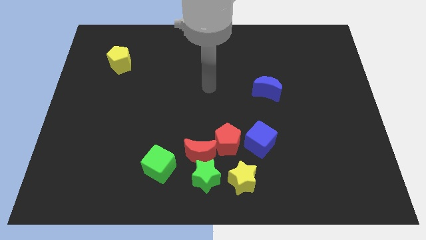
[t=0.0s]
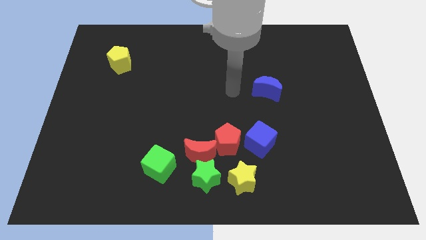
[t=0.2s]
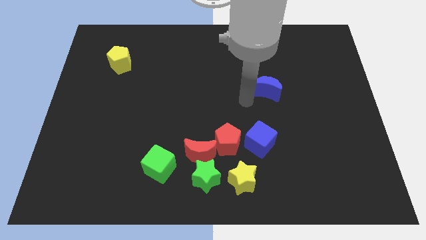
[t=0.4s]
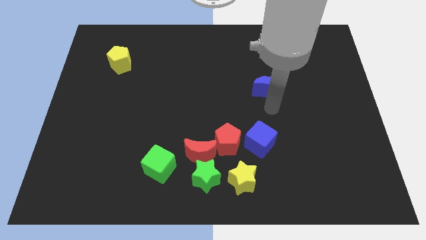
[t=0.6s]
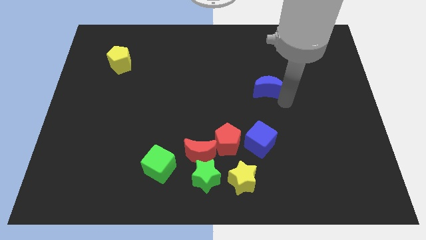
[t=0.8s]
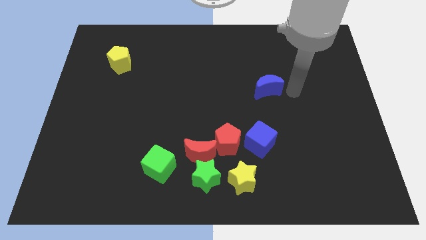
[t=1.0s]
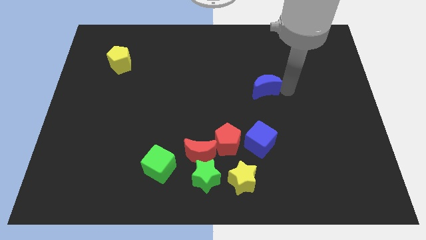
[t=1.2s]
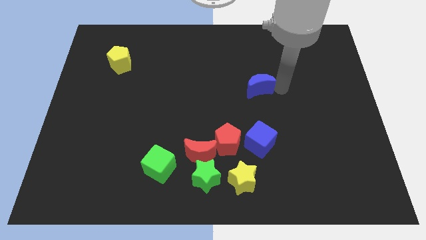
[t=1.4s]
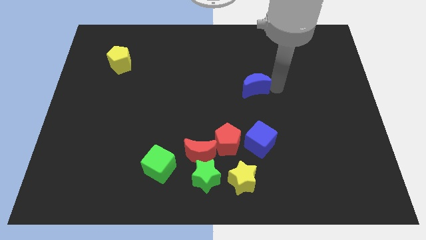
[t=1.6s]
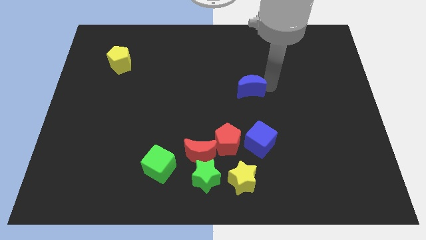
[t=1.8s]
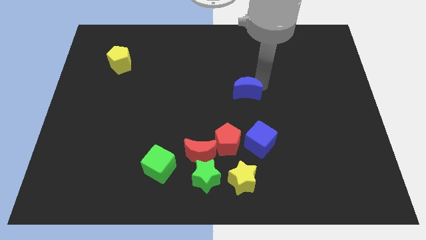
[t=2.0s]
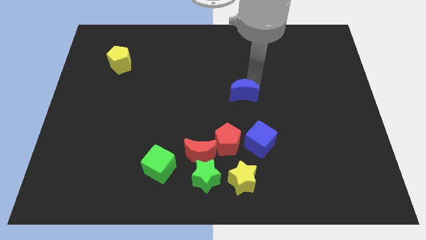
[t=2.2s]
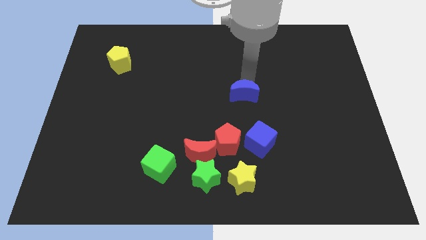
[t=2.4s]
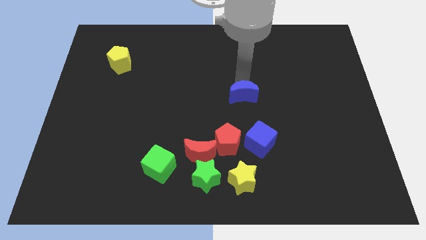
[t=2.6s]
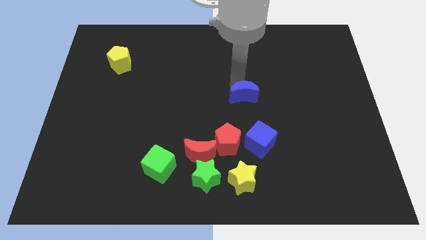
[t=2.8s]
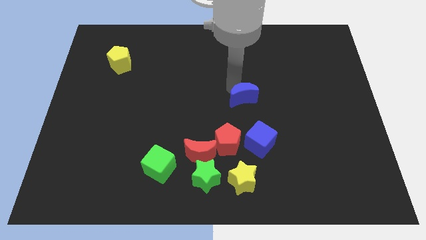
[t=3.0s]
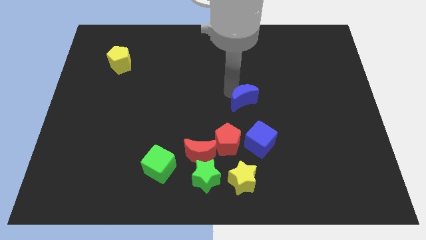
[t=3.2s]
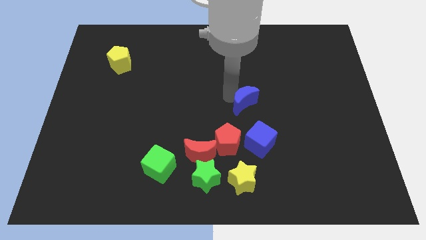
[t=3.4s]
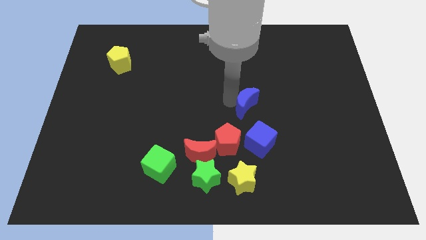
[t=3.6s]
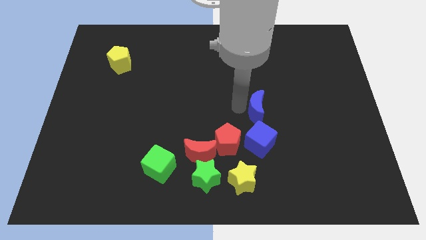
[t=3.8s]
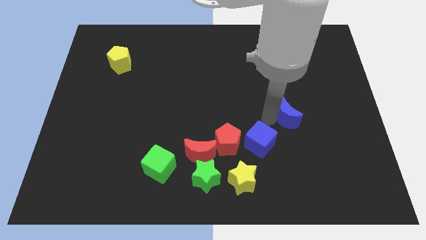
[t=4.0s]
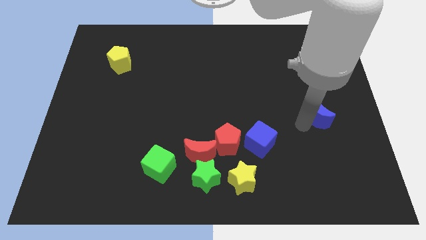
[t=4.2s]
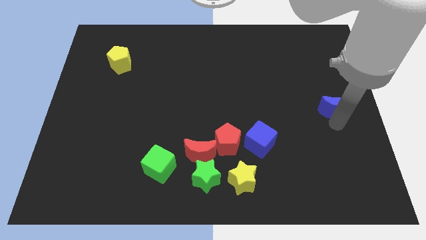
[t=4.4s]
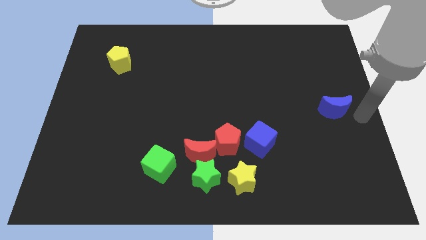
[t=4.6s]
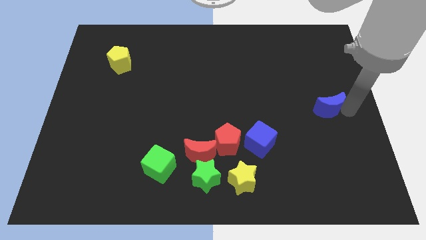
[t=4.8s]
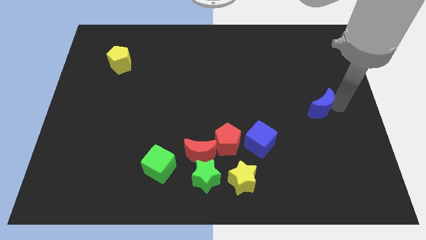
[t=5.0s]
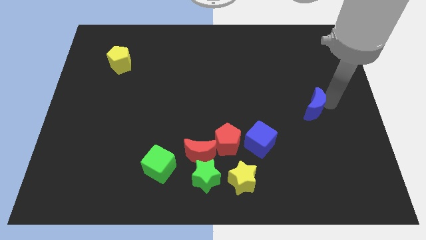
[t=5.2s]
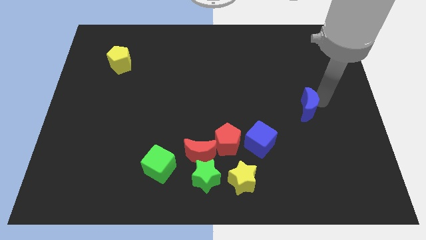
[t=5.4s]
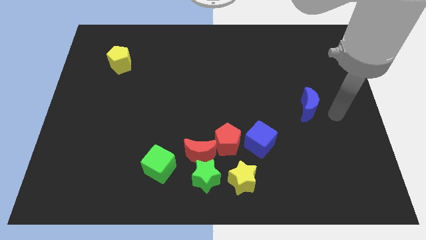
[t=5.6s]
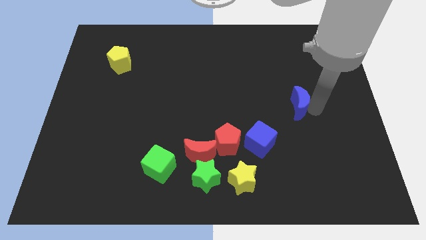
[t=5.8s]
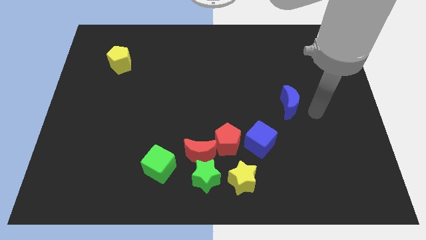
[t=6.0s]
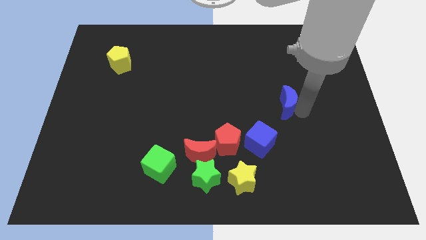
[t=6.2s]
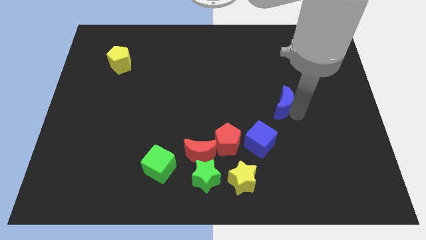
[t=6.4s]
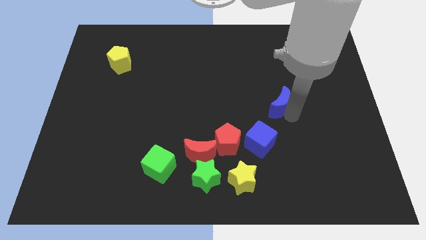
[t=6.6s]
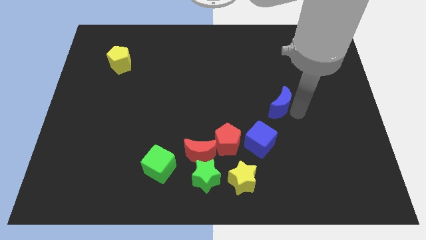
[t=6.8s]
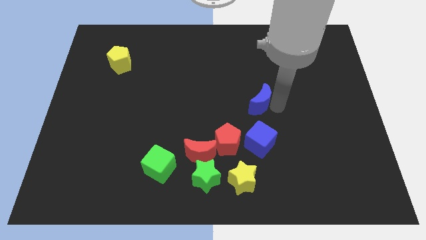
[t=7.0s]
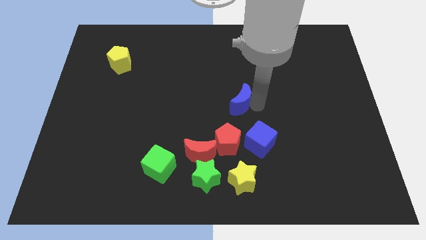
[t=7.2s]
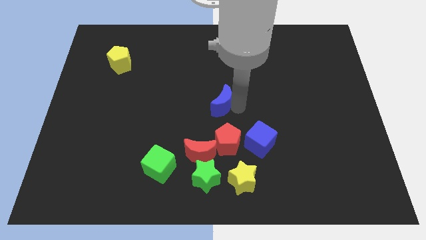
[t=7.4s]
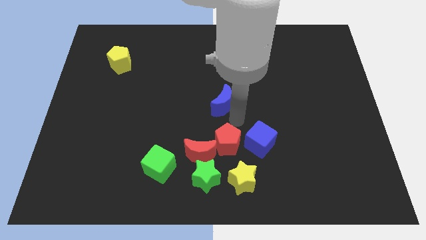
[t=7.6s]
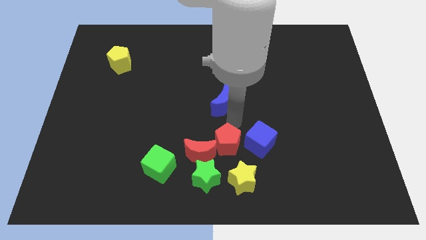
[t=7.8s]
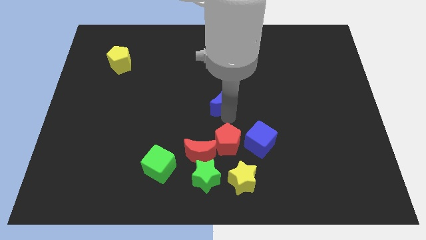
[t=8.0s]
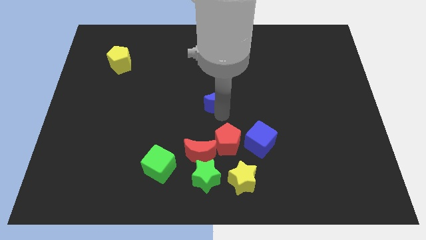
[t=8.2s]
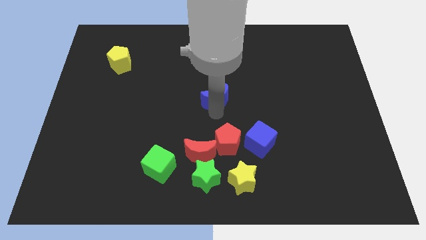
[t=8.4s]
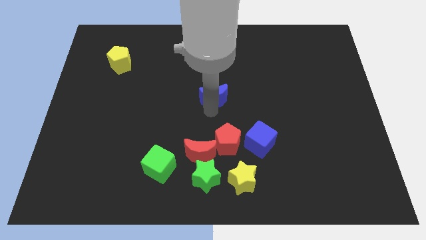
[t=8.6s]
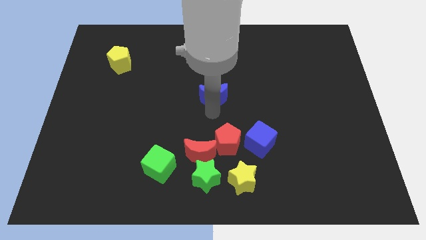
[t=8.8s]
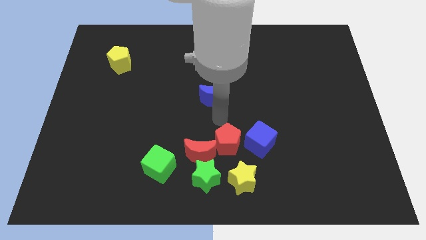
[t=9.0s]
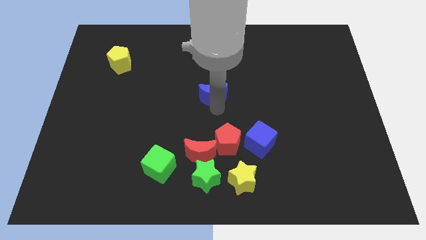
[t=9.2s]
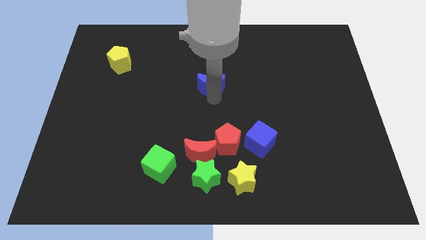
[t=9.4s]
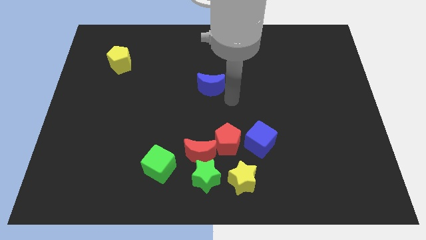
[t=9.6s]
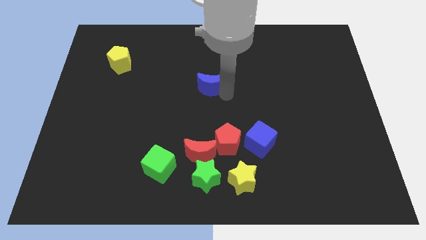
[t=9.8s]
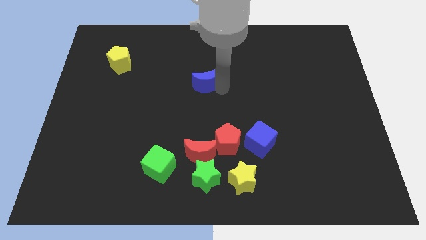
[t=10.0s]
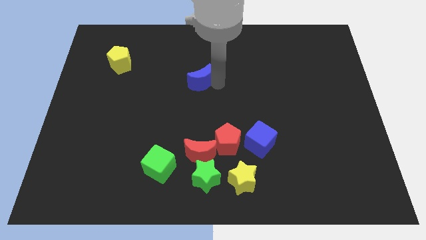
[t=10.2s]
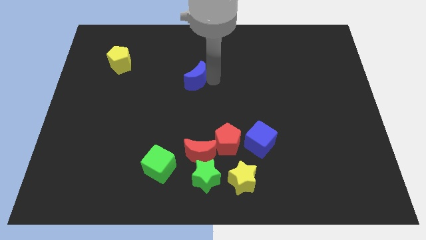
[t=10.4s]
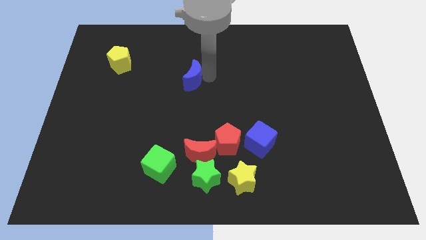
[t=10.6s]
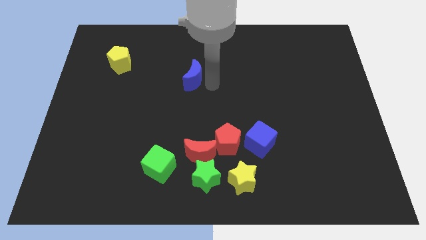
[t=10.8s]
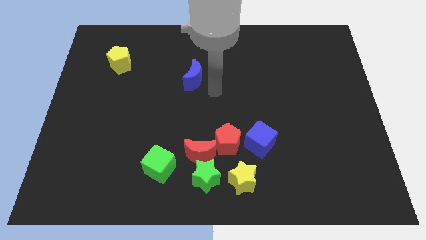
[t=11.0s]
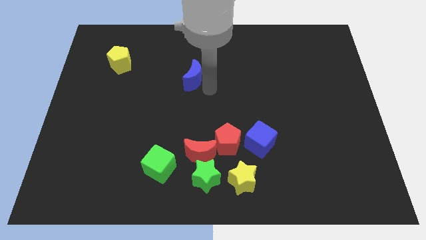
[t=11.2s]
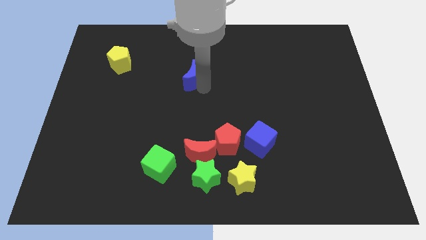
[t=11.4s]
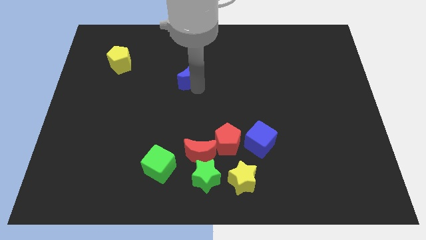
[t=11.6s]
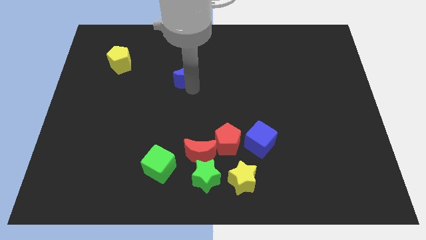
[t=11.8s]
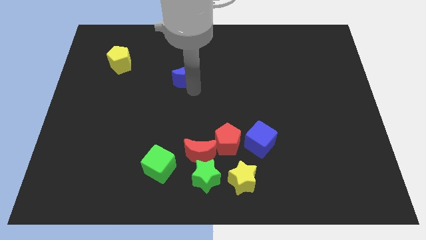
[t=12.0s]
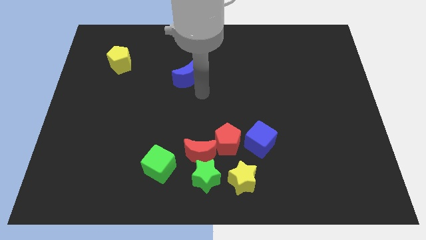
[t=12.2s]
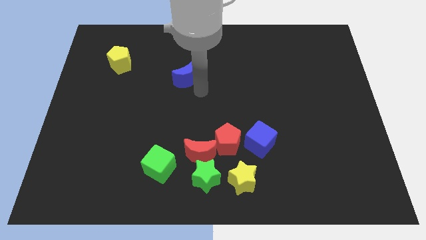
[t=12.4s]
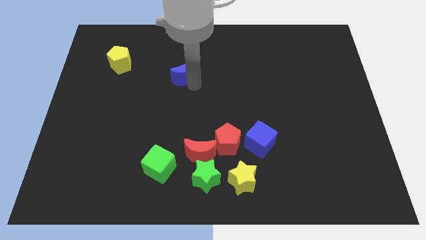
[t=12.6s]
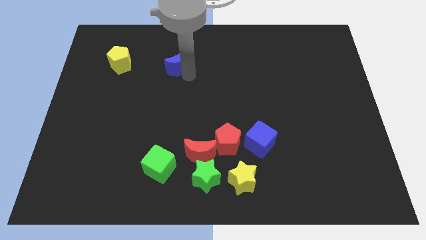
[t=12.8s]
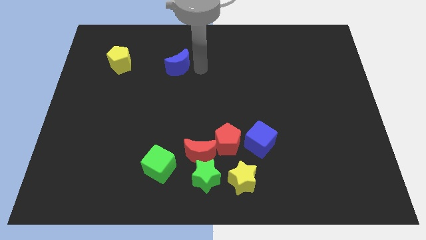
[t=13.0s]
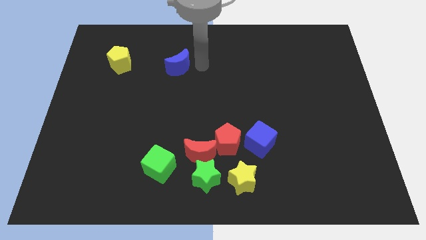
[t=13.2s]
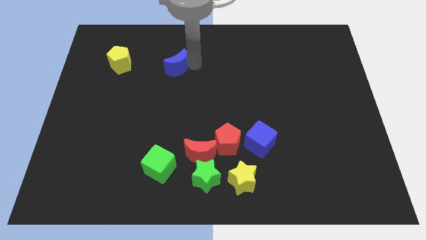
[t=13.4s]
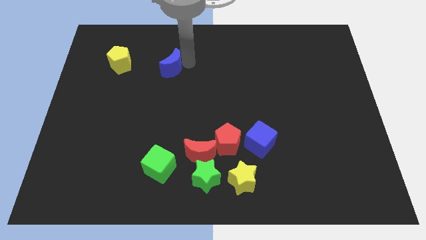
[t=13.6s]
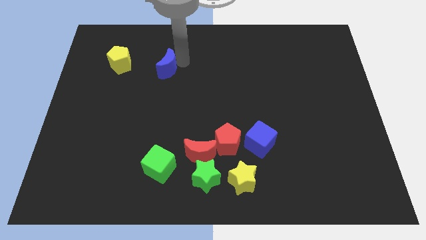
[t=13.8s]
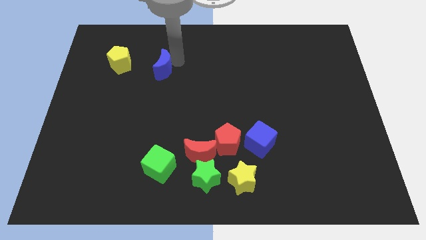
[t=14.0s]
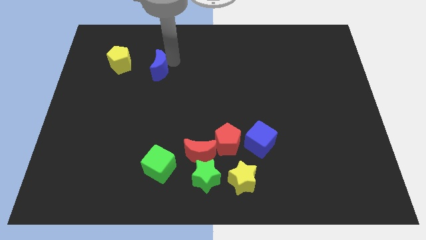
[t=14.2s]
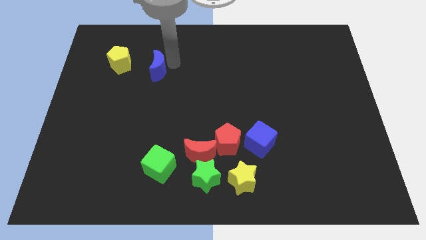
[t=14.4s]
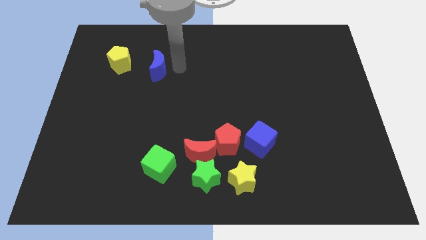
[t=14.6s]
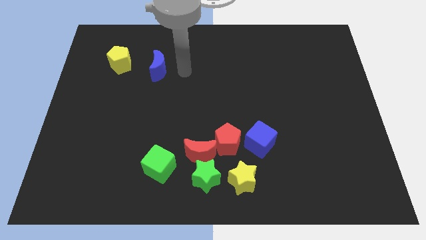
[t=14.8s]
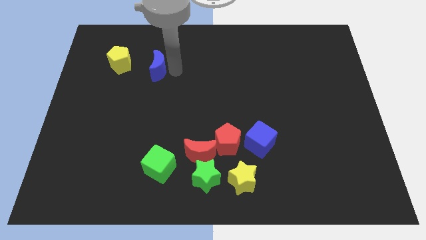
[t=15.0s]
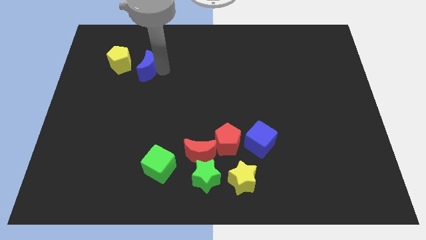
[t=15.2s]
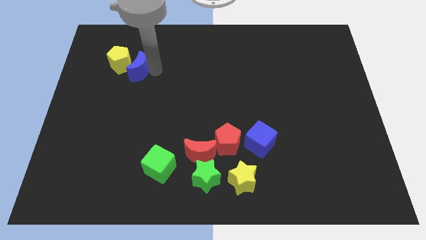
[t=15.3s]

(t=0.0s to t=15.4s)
push the blue moon next to the yellow pentagon
